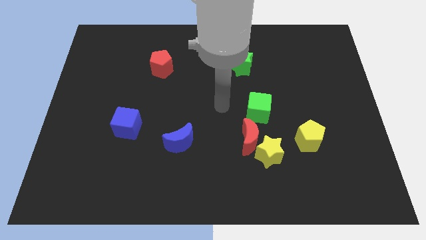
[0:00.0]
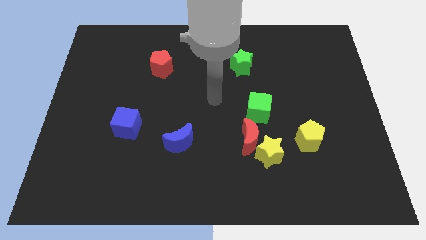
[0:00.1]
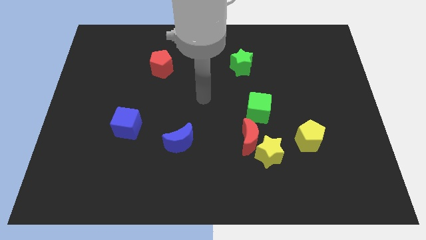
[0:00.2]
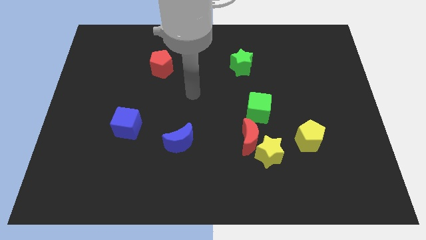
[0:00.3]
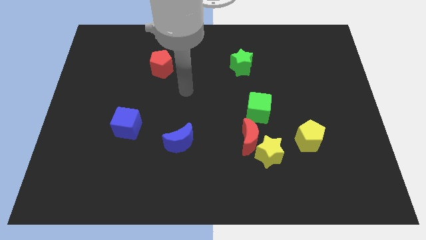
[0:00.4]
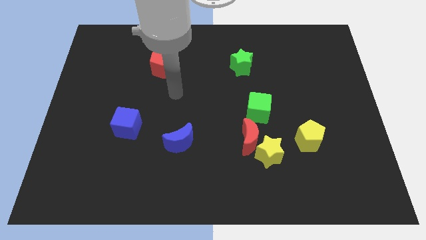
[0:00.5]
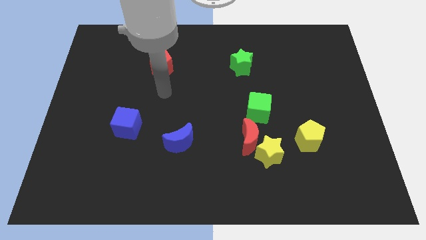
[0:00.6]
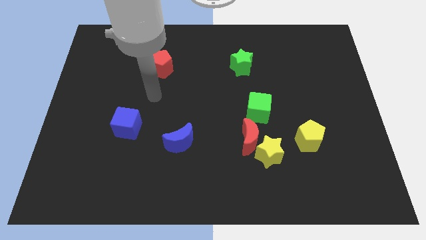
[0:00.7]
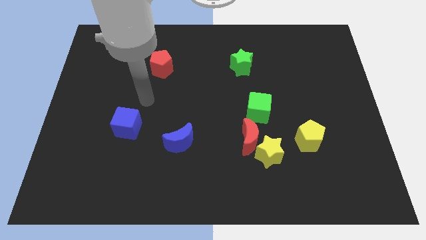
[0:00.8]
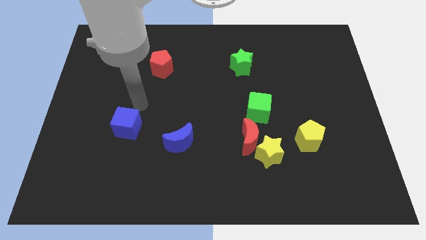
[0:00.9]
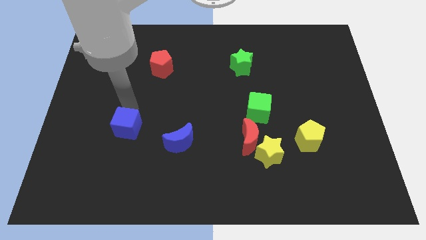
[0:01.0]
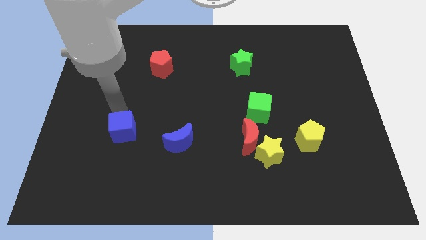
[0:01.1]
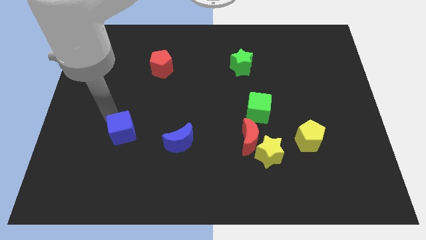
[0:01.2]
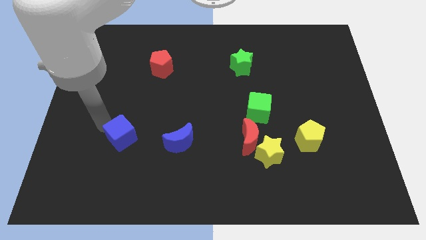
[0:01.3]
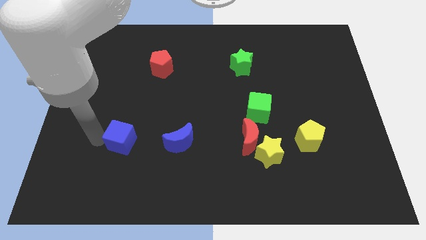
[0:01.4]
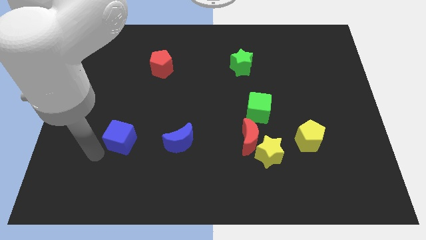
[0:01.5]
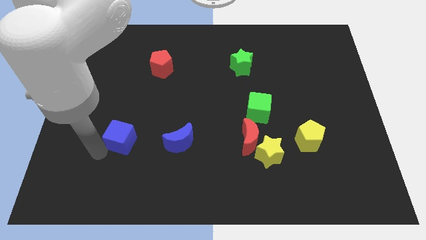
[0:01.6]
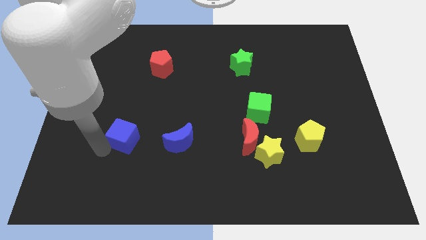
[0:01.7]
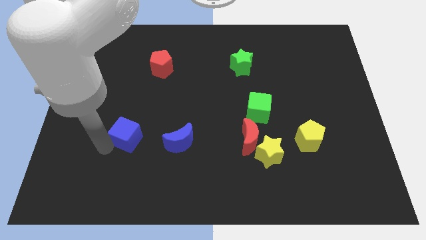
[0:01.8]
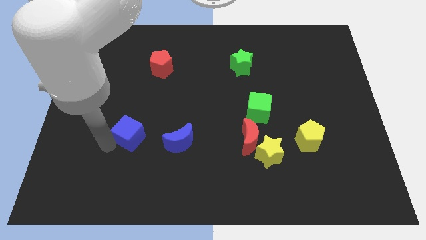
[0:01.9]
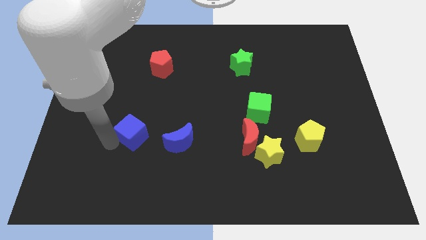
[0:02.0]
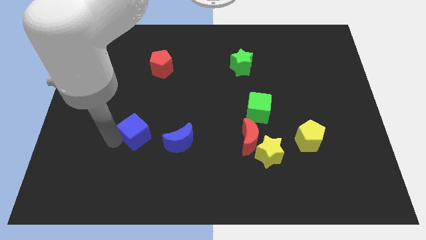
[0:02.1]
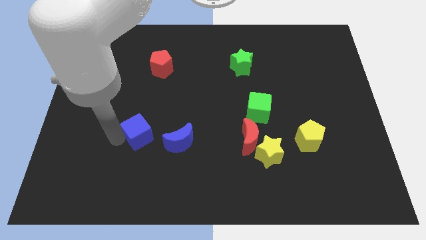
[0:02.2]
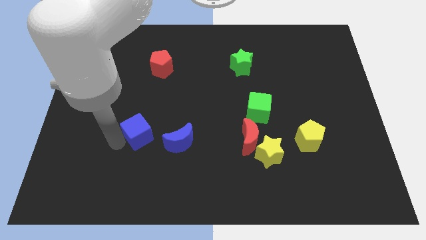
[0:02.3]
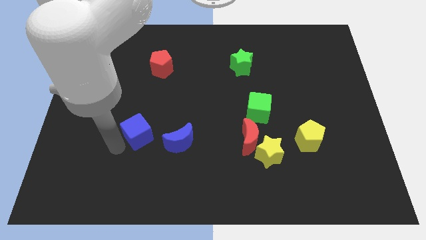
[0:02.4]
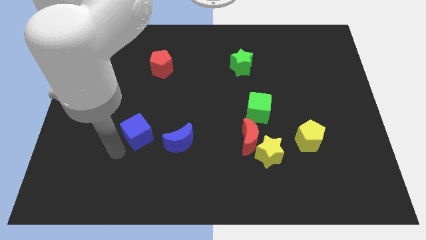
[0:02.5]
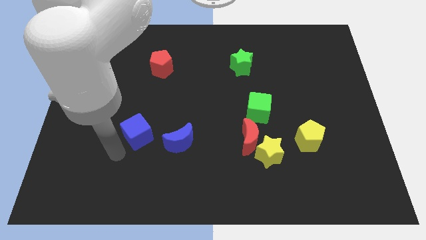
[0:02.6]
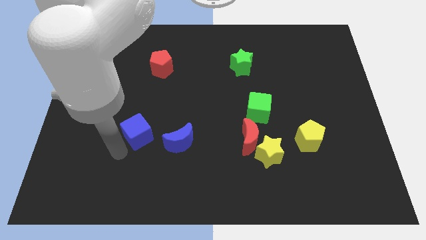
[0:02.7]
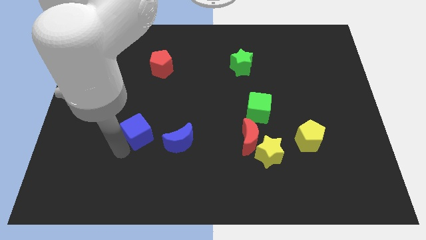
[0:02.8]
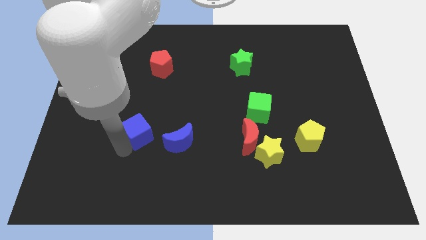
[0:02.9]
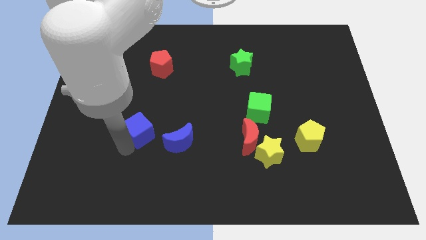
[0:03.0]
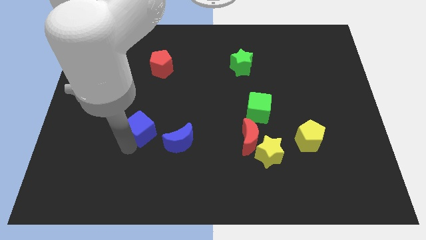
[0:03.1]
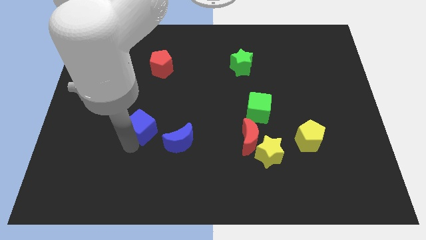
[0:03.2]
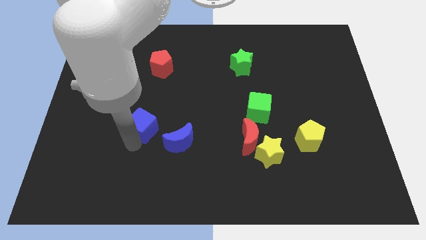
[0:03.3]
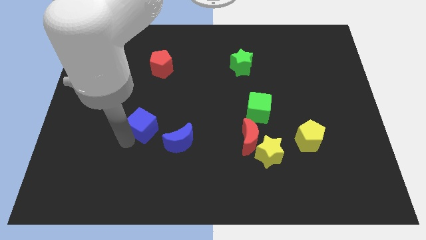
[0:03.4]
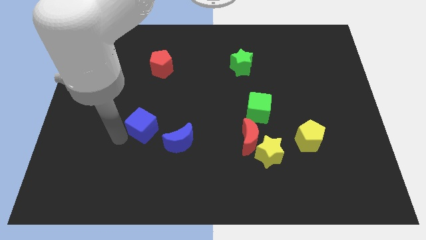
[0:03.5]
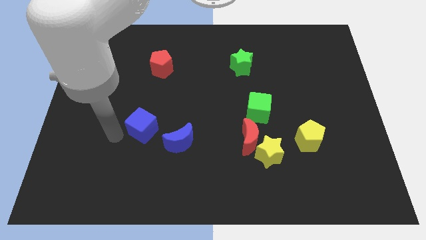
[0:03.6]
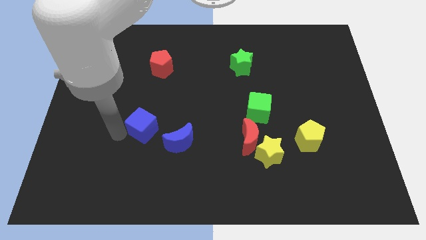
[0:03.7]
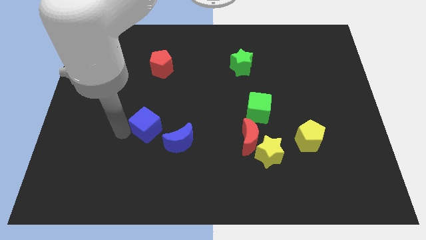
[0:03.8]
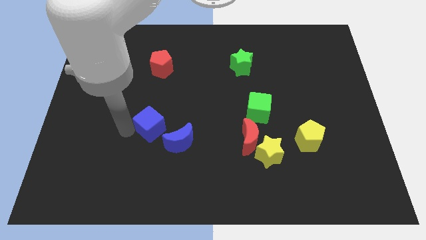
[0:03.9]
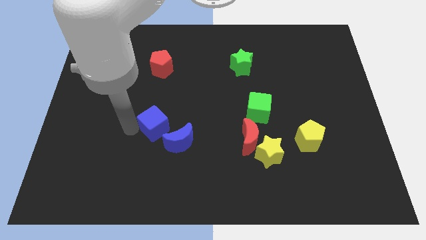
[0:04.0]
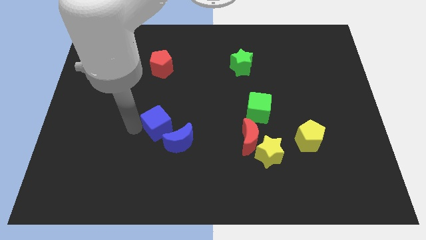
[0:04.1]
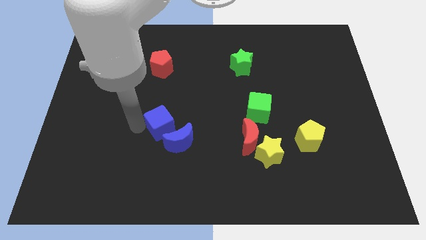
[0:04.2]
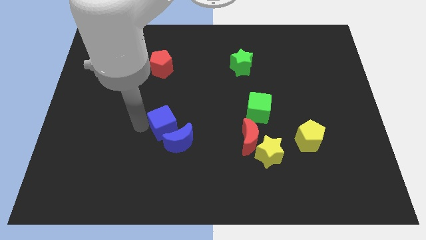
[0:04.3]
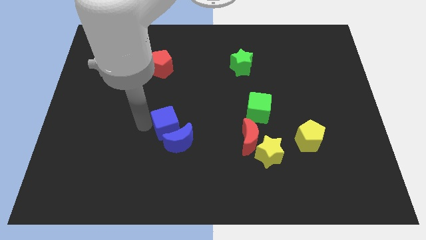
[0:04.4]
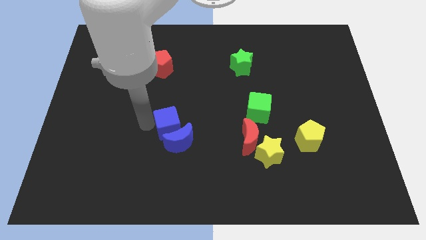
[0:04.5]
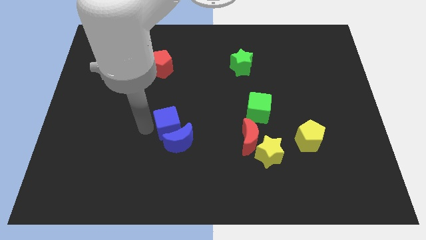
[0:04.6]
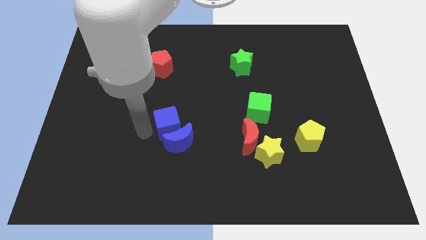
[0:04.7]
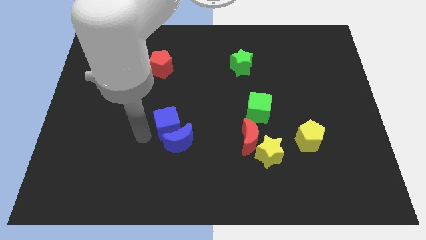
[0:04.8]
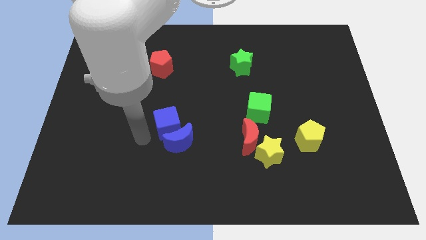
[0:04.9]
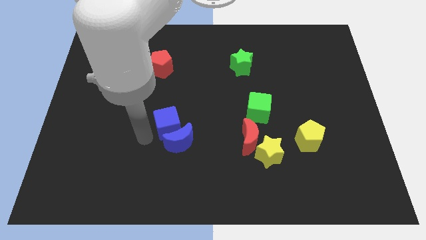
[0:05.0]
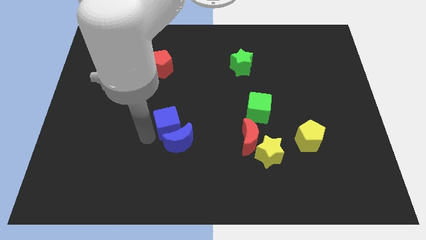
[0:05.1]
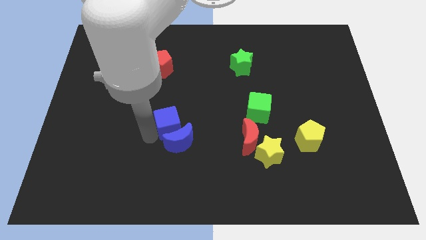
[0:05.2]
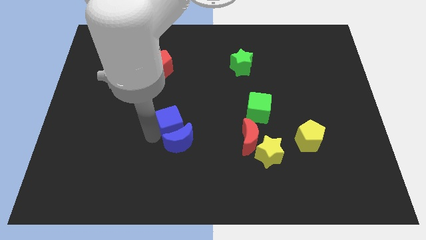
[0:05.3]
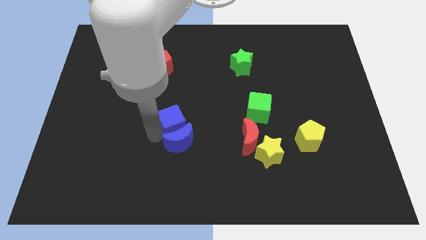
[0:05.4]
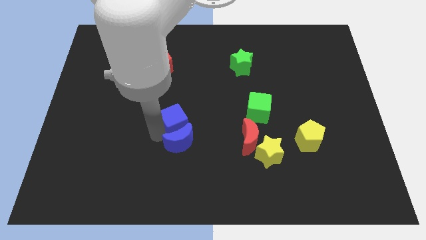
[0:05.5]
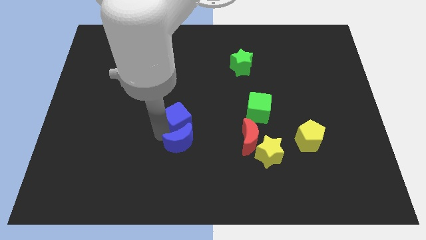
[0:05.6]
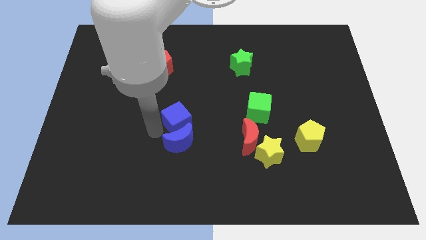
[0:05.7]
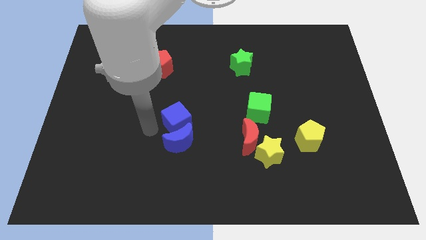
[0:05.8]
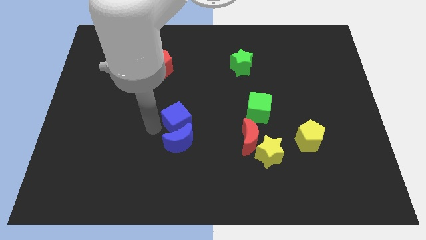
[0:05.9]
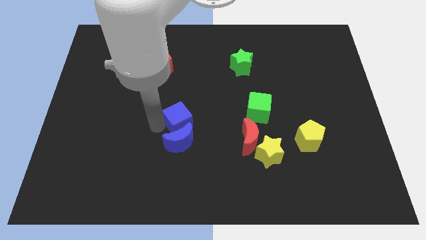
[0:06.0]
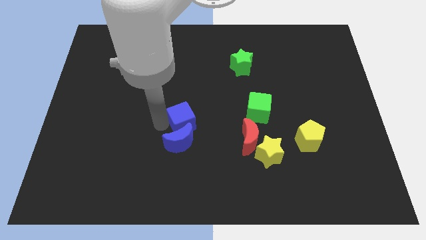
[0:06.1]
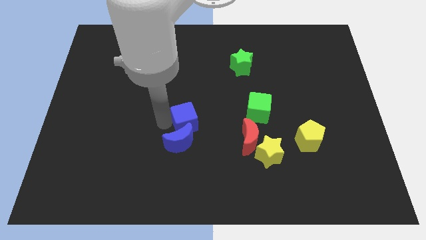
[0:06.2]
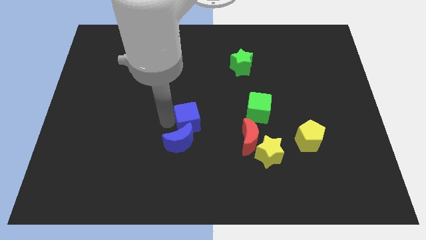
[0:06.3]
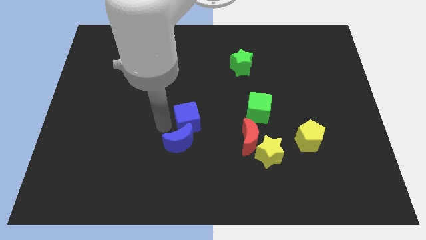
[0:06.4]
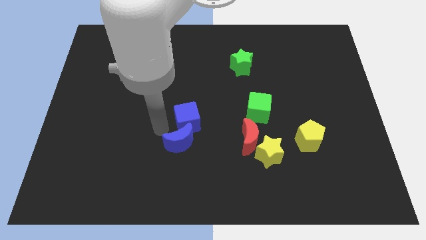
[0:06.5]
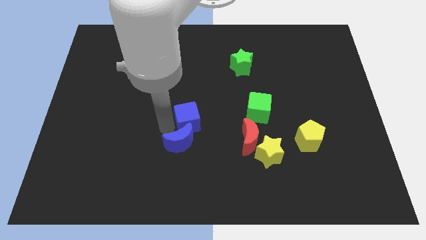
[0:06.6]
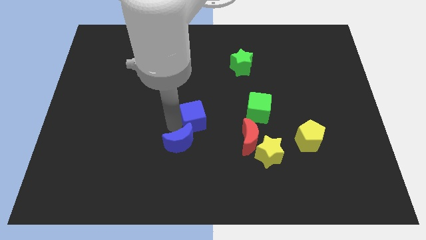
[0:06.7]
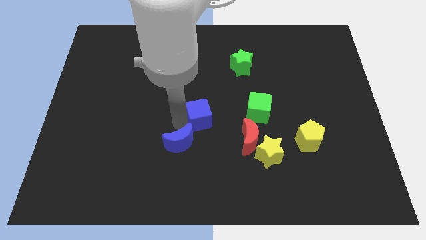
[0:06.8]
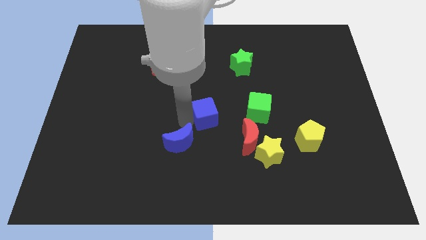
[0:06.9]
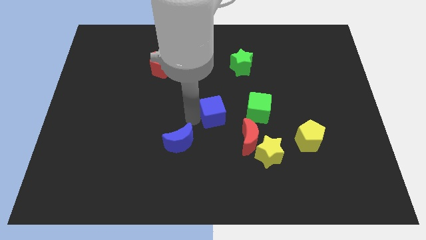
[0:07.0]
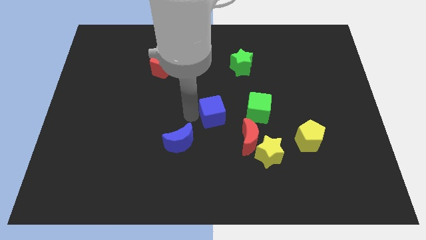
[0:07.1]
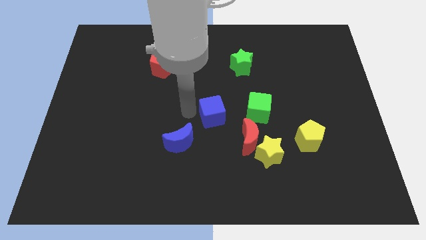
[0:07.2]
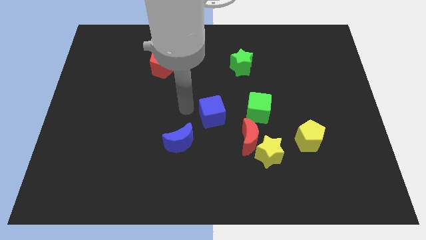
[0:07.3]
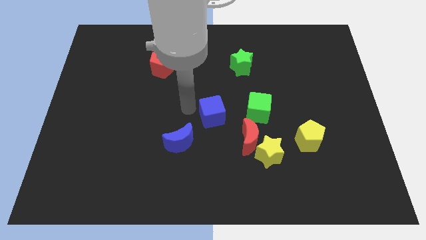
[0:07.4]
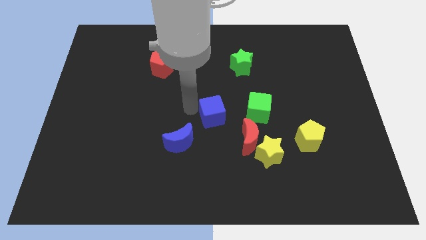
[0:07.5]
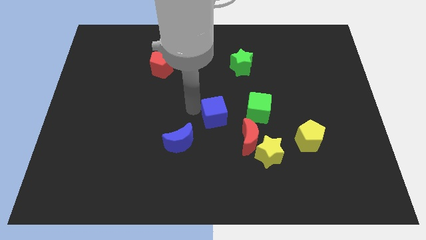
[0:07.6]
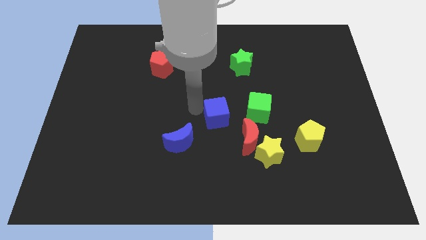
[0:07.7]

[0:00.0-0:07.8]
move the blue cube right
